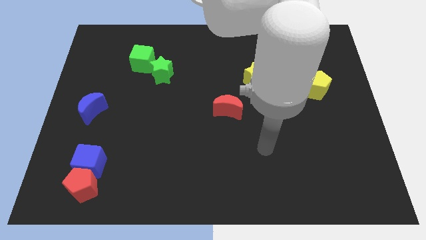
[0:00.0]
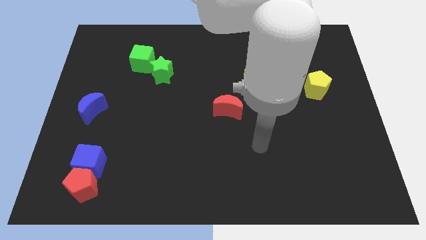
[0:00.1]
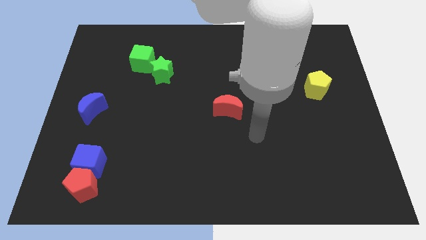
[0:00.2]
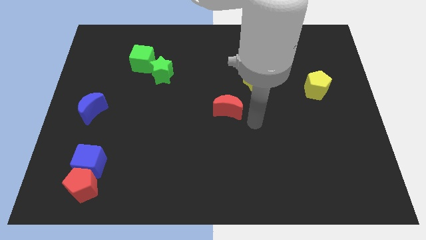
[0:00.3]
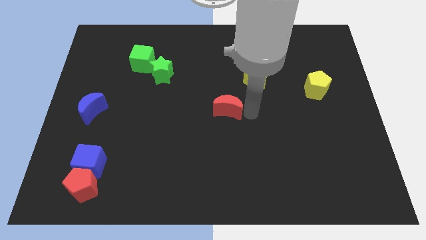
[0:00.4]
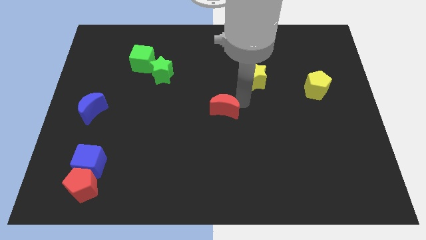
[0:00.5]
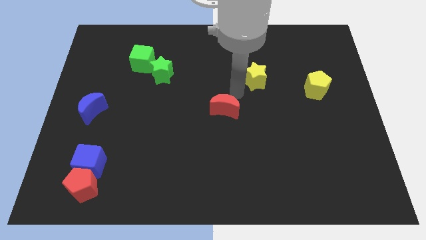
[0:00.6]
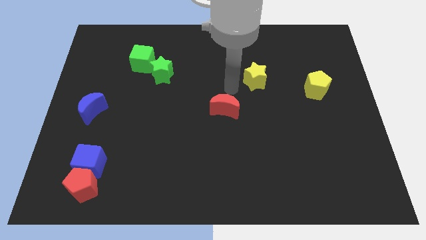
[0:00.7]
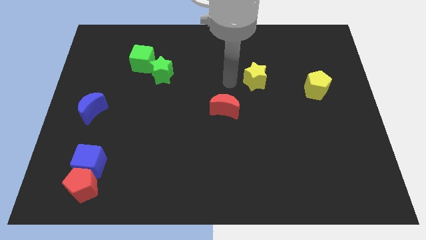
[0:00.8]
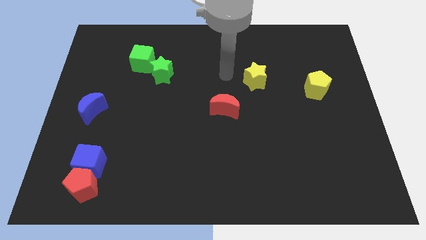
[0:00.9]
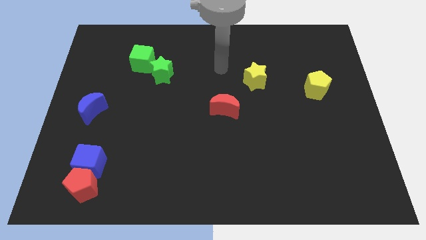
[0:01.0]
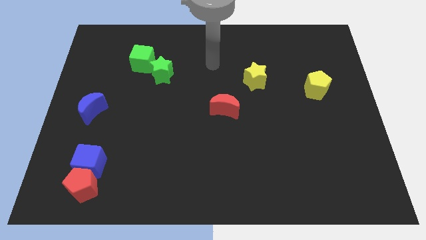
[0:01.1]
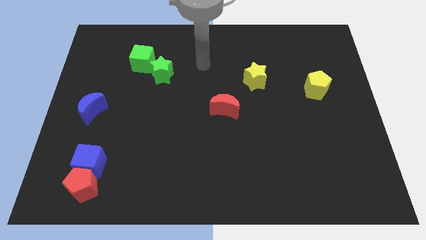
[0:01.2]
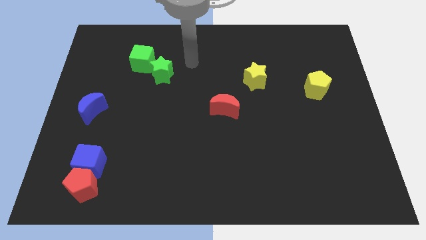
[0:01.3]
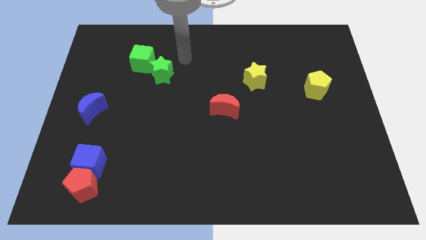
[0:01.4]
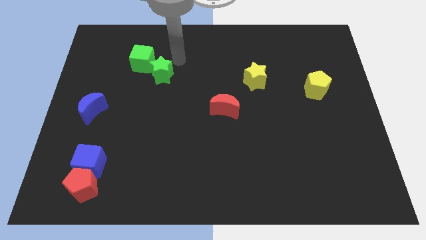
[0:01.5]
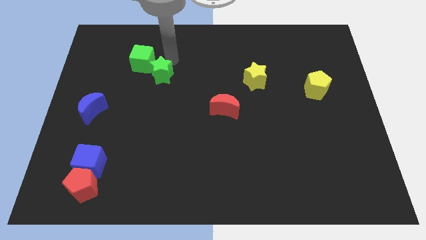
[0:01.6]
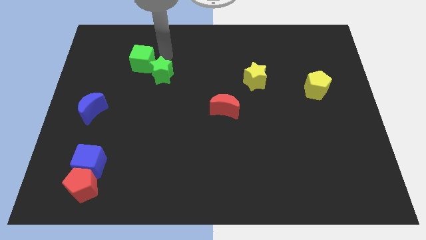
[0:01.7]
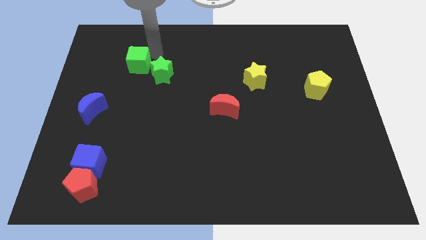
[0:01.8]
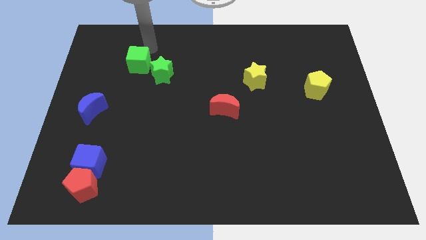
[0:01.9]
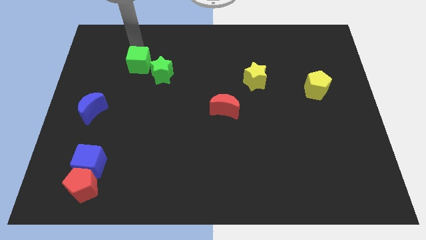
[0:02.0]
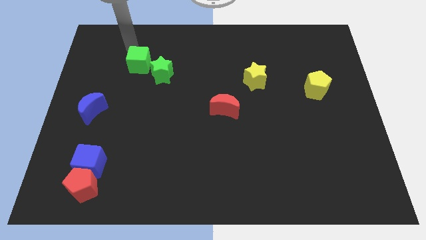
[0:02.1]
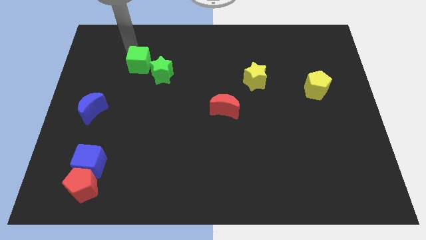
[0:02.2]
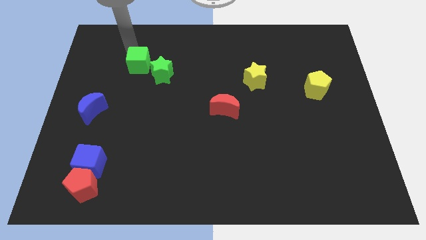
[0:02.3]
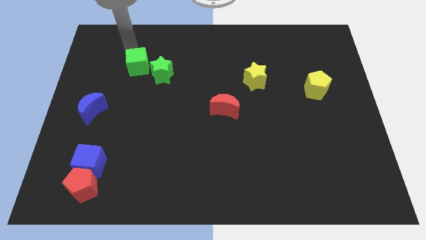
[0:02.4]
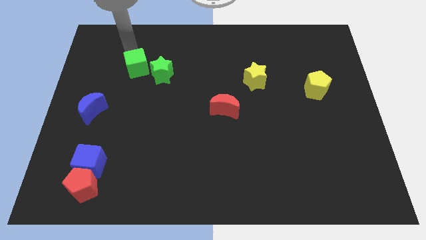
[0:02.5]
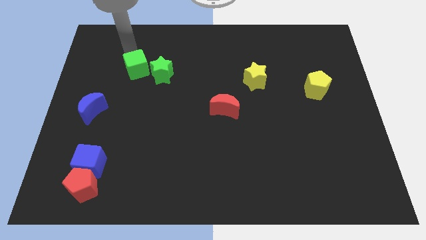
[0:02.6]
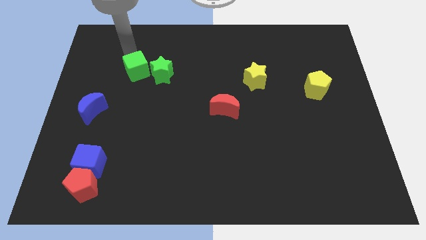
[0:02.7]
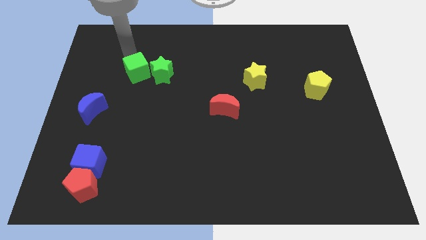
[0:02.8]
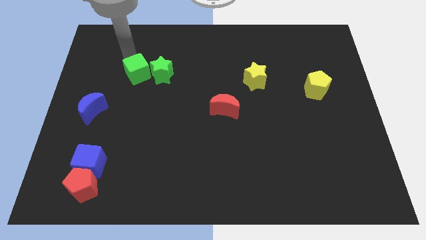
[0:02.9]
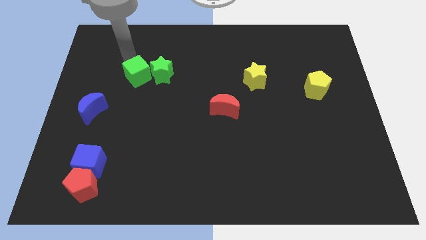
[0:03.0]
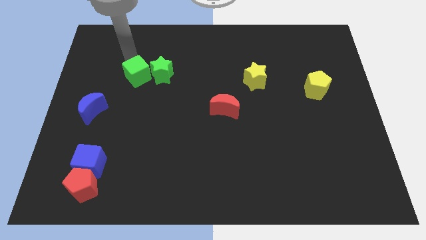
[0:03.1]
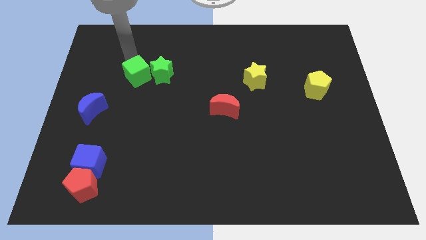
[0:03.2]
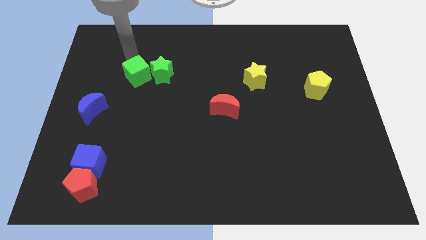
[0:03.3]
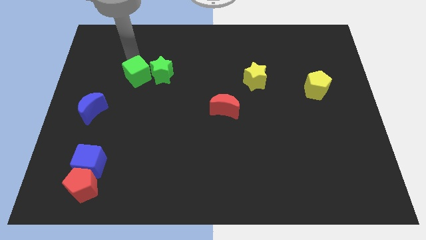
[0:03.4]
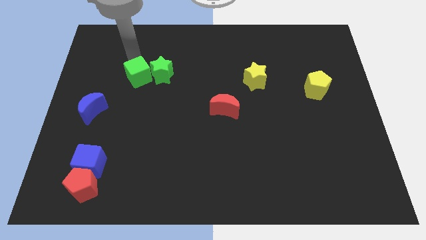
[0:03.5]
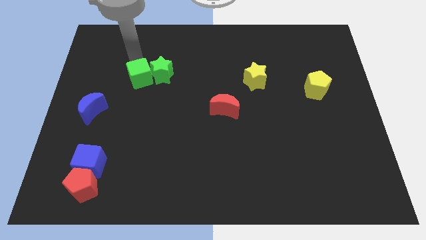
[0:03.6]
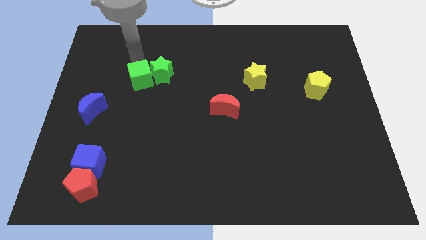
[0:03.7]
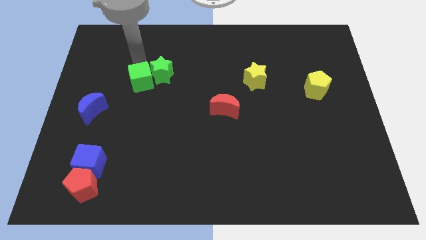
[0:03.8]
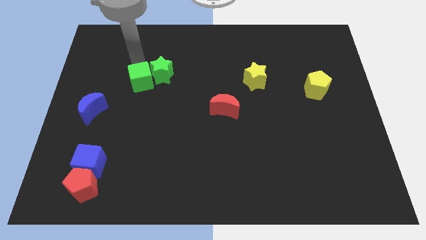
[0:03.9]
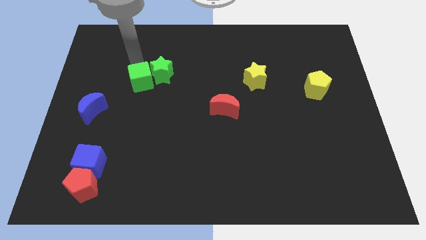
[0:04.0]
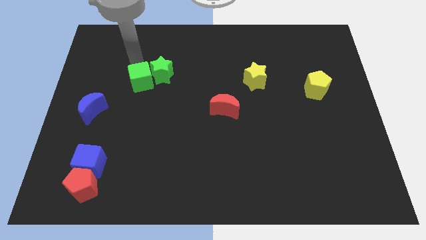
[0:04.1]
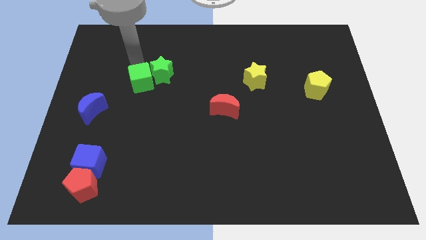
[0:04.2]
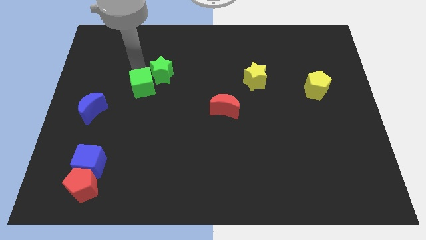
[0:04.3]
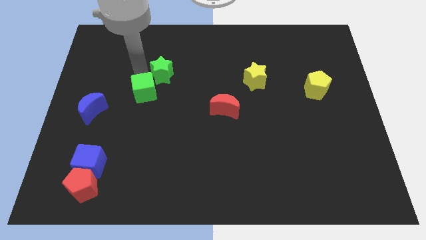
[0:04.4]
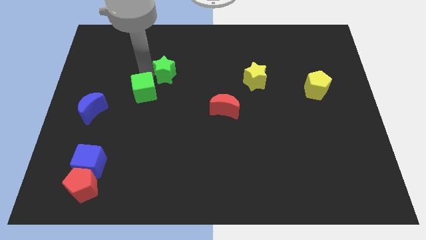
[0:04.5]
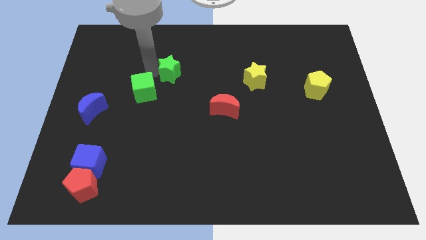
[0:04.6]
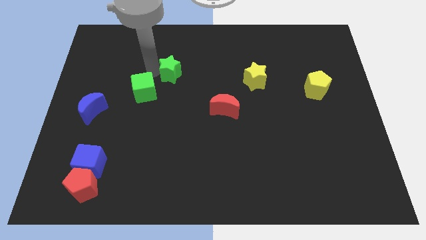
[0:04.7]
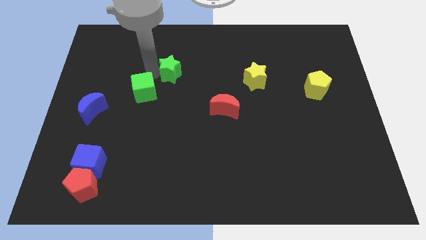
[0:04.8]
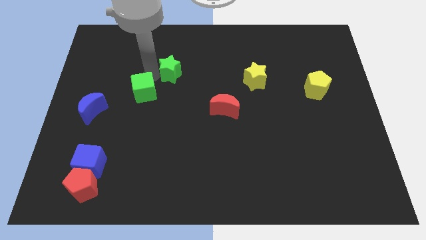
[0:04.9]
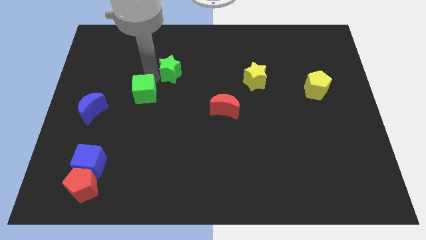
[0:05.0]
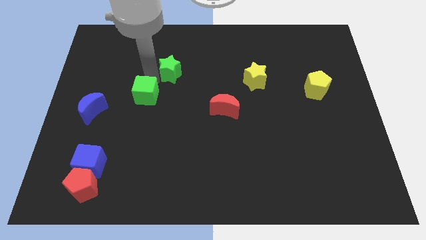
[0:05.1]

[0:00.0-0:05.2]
slide the green cube just right of the blue moon

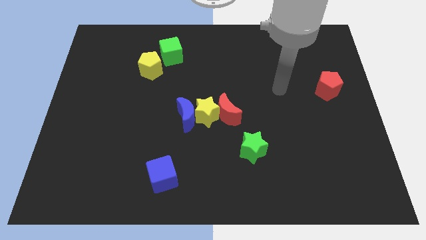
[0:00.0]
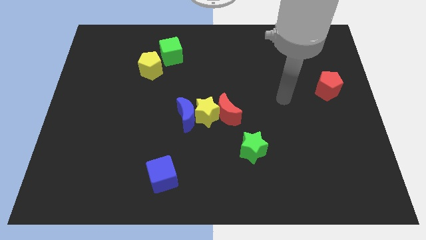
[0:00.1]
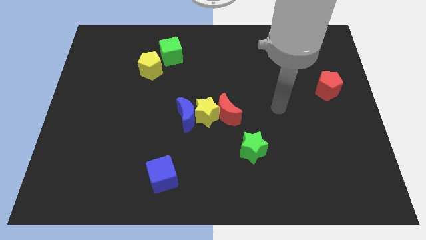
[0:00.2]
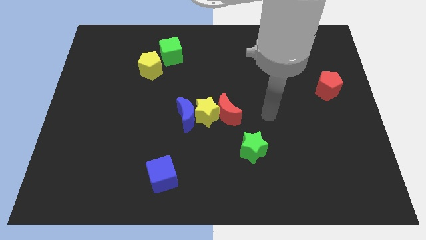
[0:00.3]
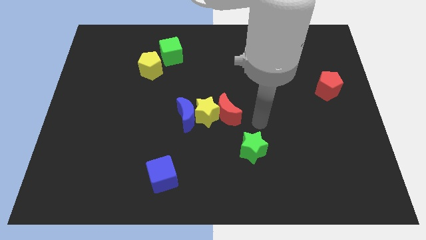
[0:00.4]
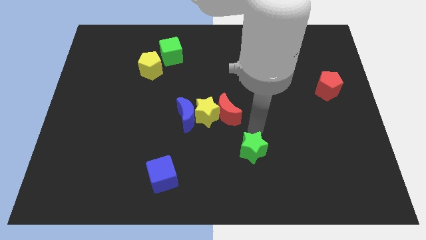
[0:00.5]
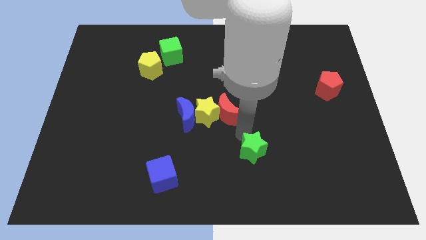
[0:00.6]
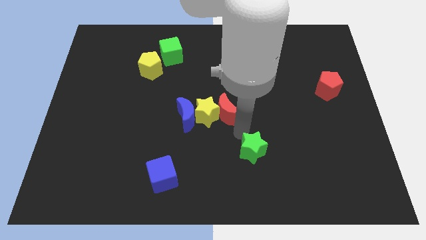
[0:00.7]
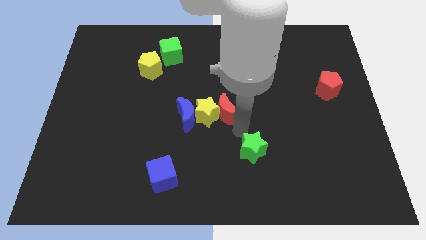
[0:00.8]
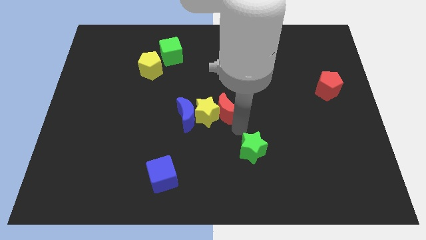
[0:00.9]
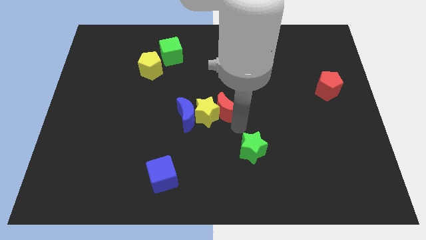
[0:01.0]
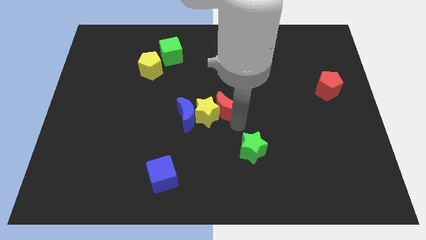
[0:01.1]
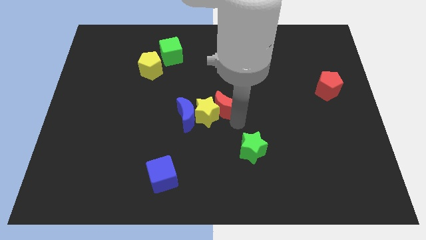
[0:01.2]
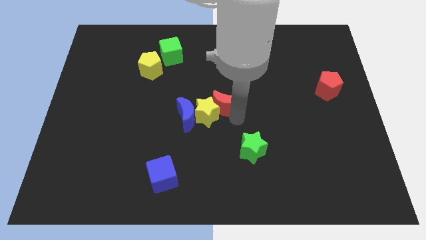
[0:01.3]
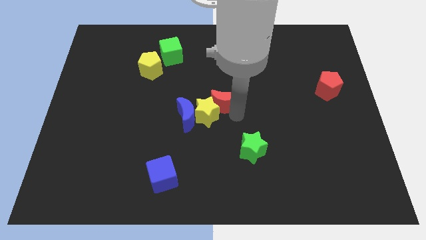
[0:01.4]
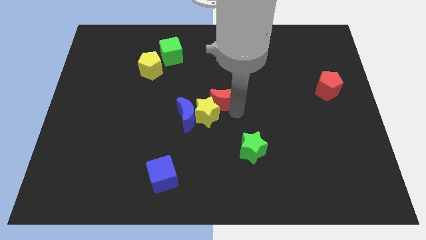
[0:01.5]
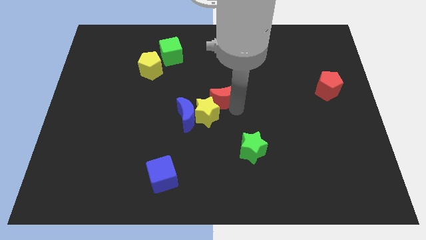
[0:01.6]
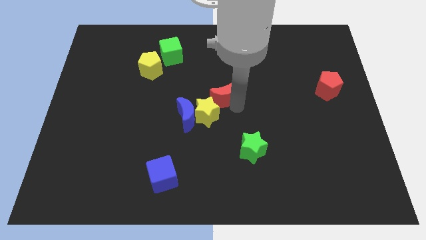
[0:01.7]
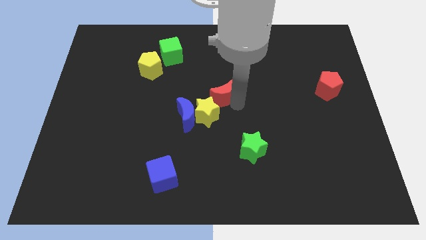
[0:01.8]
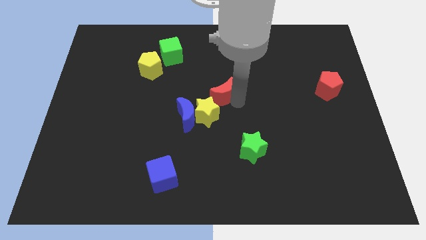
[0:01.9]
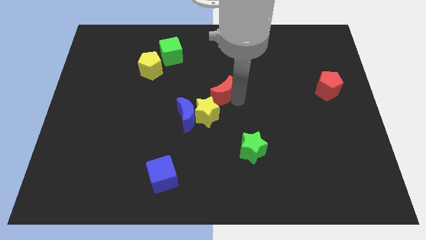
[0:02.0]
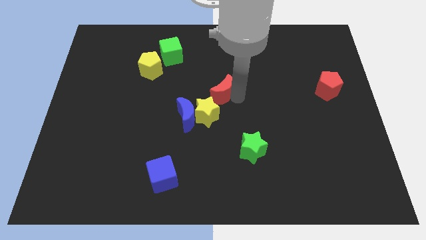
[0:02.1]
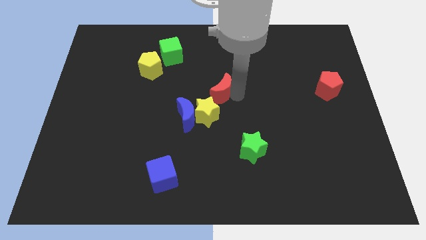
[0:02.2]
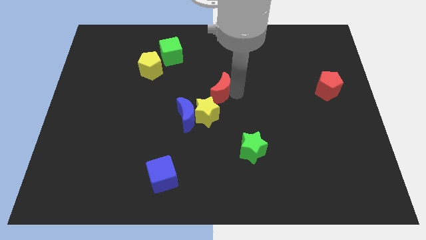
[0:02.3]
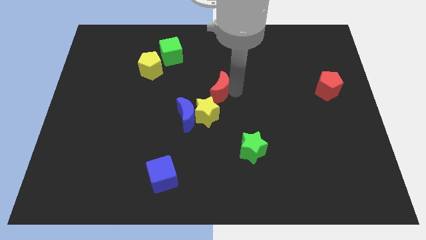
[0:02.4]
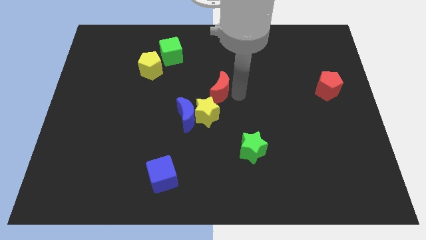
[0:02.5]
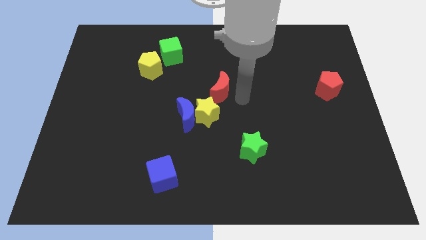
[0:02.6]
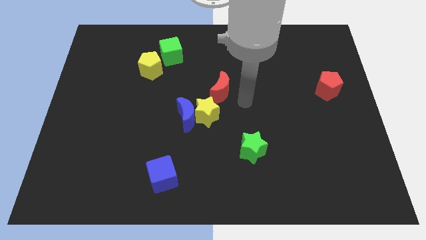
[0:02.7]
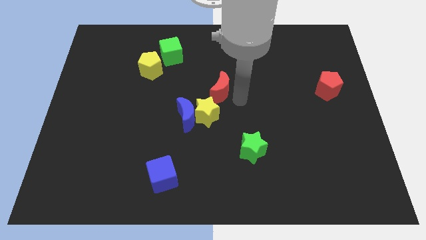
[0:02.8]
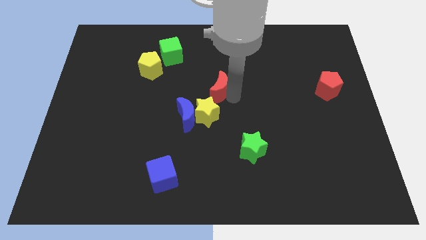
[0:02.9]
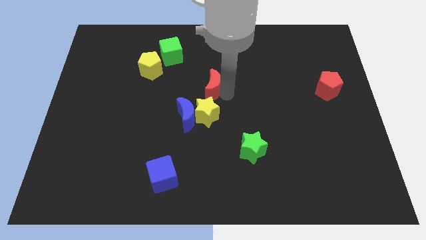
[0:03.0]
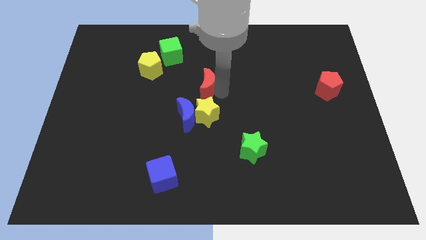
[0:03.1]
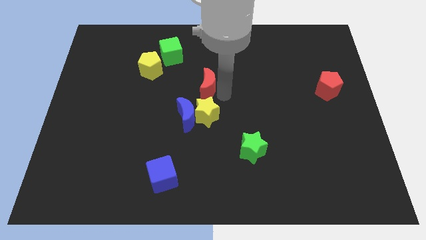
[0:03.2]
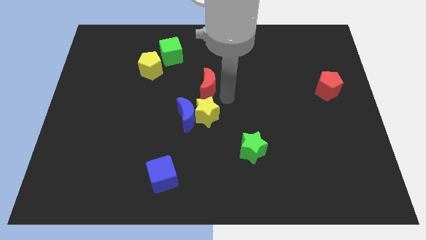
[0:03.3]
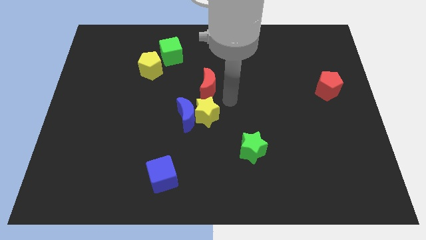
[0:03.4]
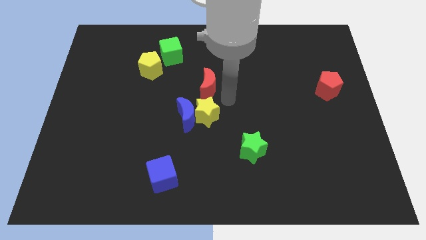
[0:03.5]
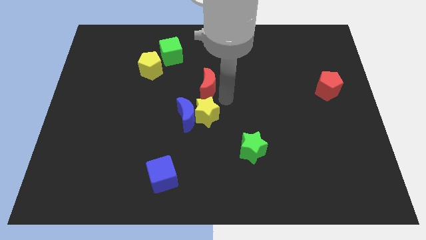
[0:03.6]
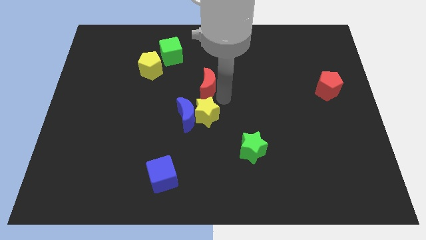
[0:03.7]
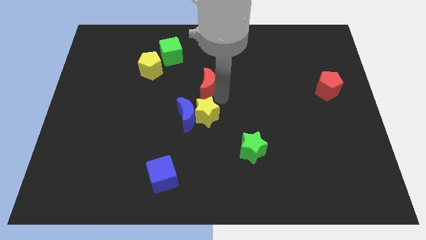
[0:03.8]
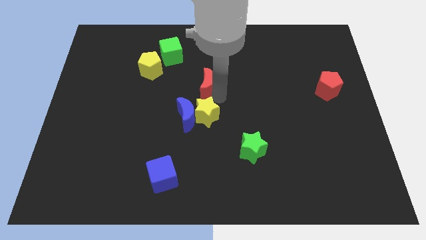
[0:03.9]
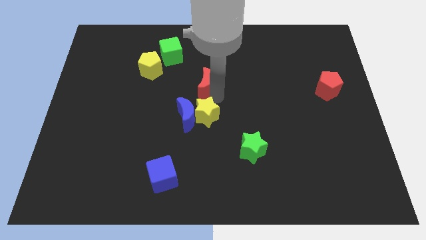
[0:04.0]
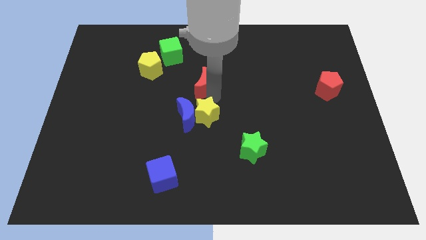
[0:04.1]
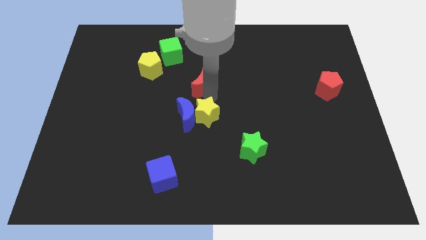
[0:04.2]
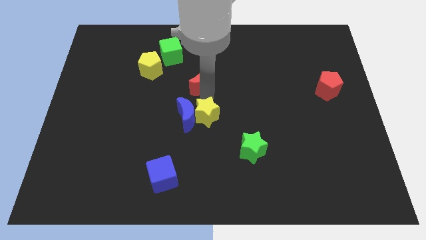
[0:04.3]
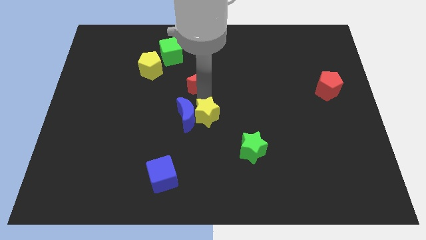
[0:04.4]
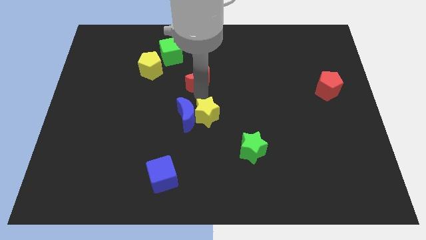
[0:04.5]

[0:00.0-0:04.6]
slide the red moon to the right of the yellow pentagon
